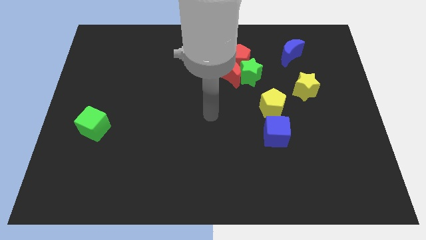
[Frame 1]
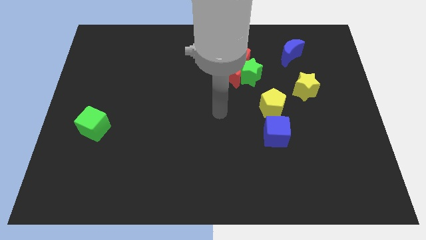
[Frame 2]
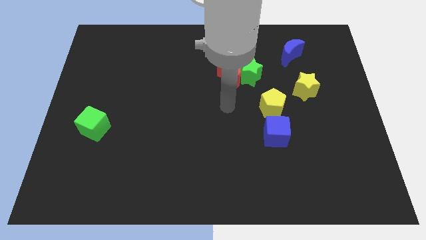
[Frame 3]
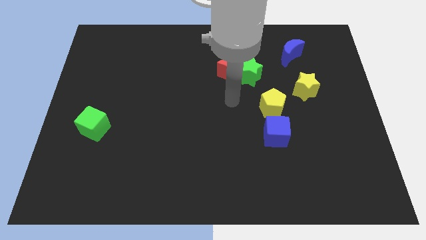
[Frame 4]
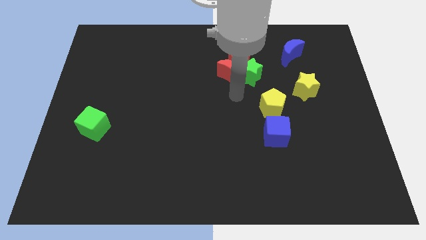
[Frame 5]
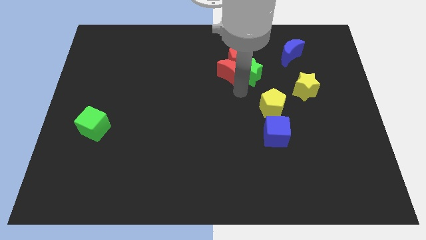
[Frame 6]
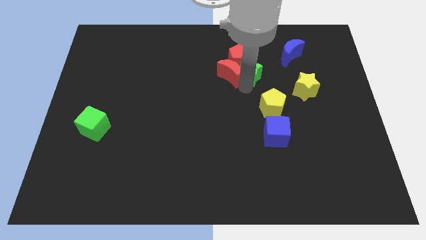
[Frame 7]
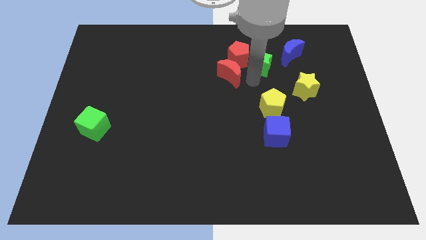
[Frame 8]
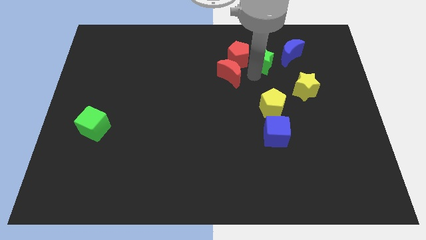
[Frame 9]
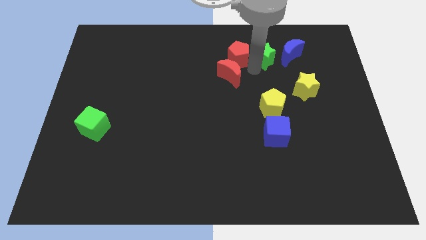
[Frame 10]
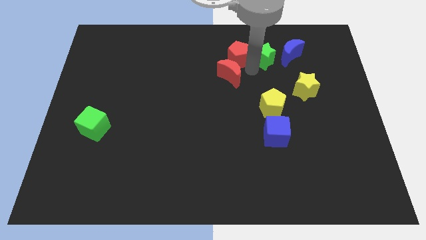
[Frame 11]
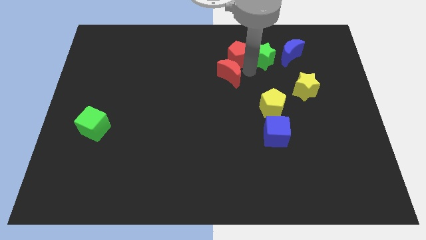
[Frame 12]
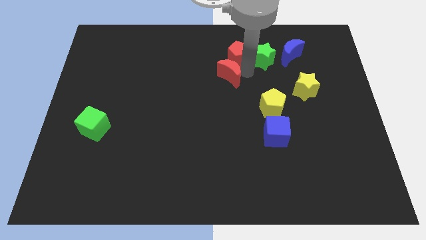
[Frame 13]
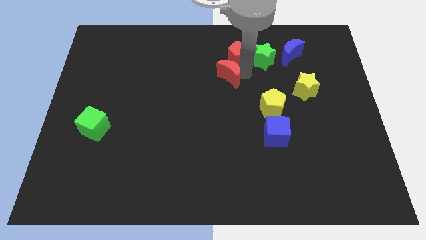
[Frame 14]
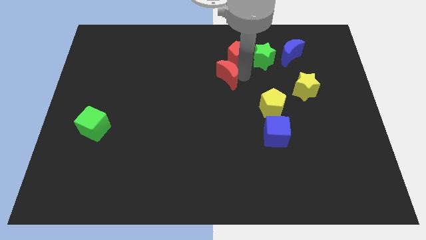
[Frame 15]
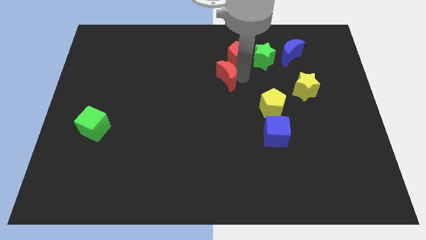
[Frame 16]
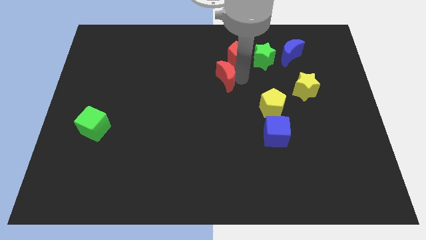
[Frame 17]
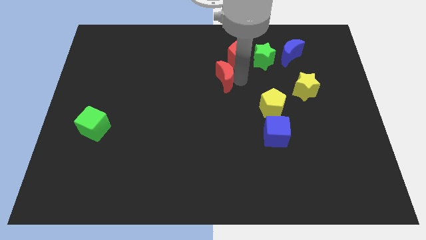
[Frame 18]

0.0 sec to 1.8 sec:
pull the red moon apart from the green star and red pentagon

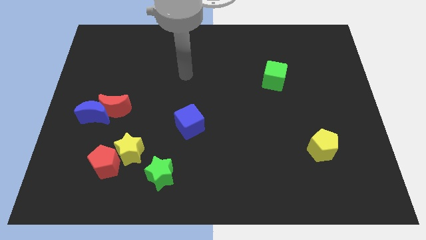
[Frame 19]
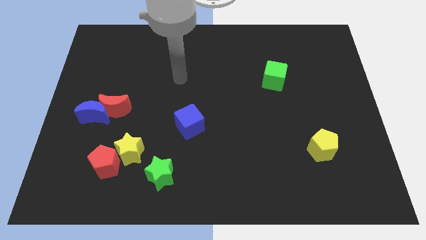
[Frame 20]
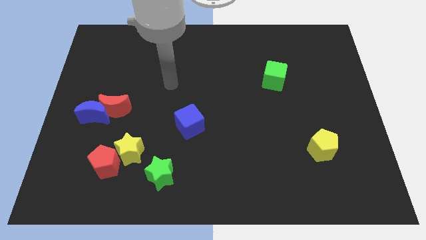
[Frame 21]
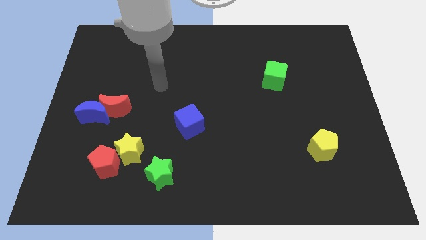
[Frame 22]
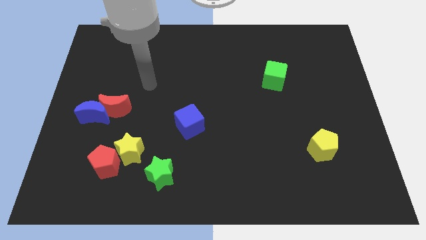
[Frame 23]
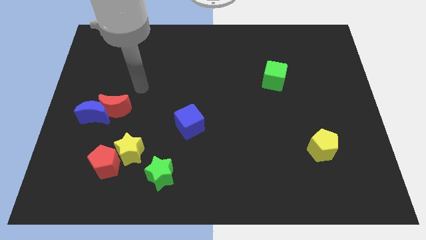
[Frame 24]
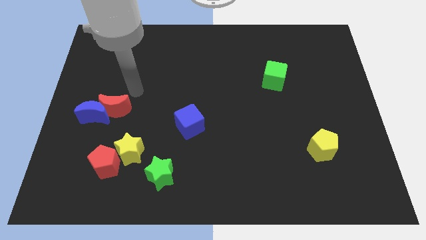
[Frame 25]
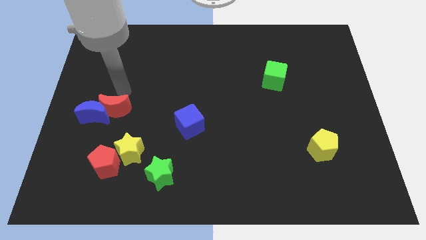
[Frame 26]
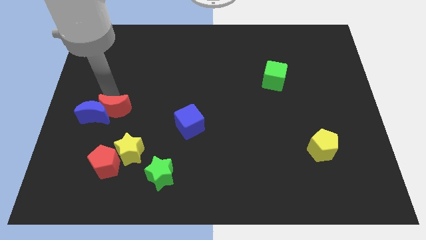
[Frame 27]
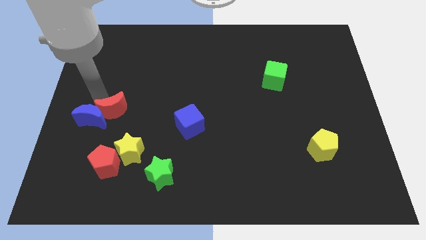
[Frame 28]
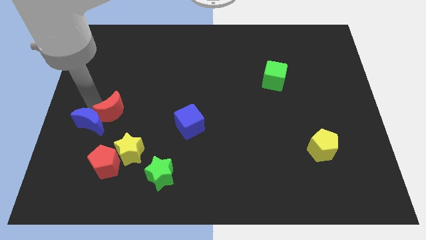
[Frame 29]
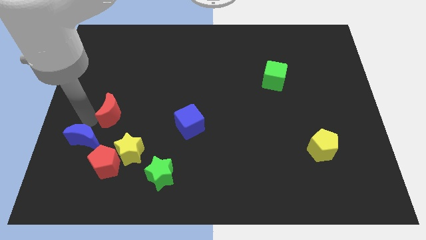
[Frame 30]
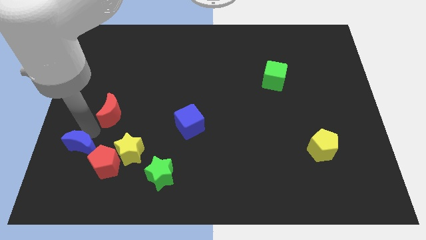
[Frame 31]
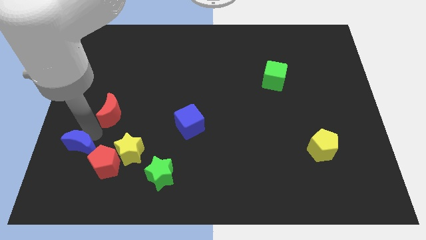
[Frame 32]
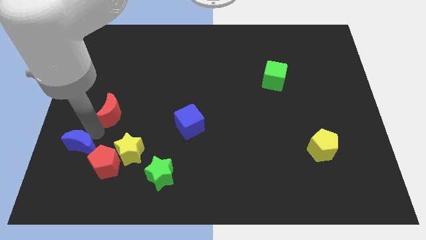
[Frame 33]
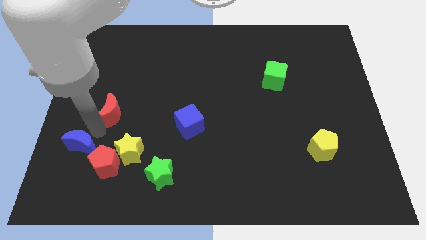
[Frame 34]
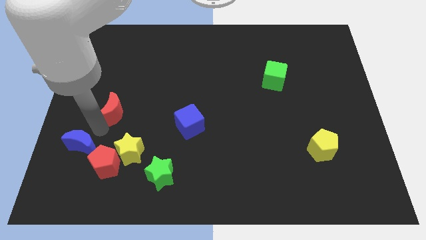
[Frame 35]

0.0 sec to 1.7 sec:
move the red moon away from the blue moon

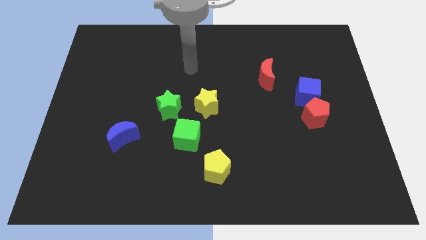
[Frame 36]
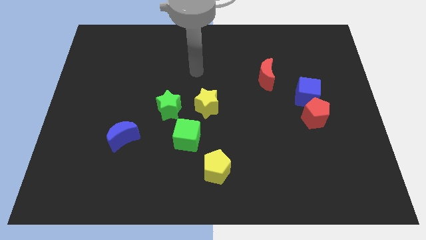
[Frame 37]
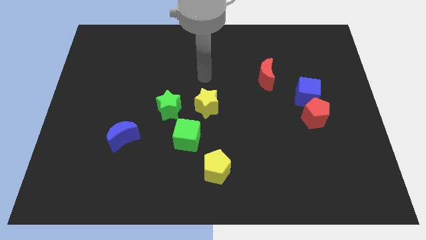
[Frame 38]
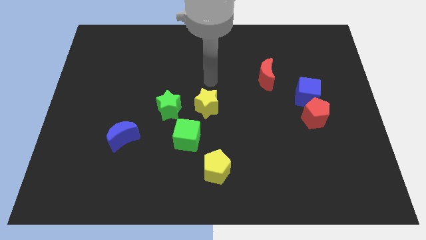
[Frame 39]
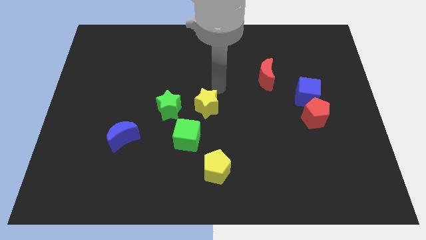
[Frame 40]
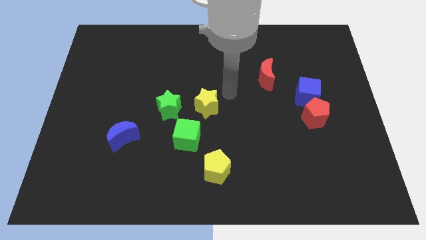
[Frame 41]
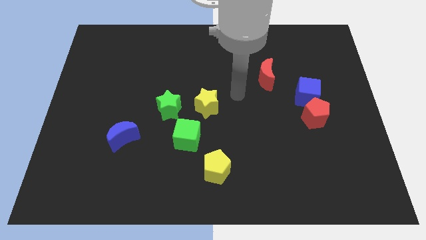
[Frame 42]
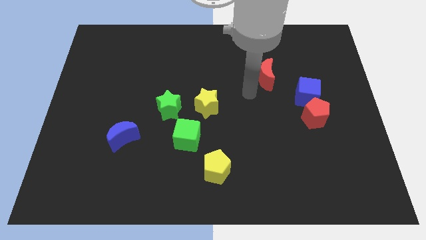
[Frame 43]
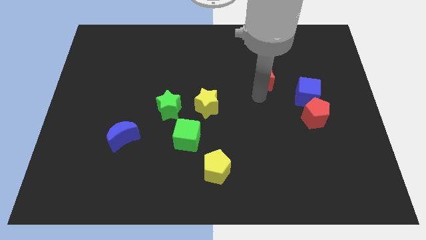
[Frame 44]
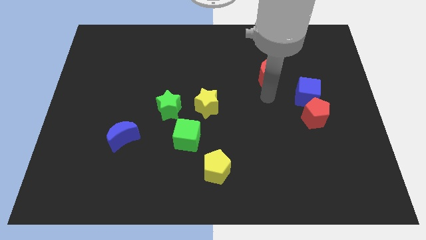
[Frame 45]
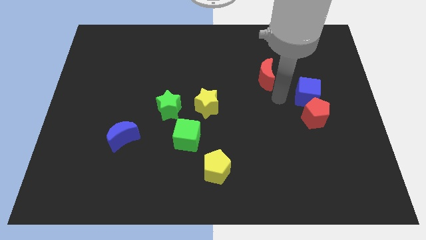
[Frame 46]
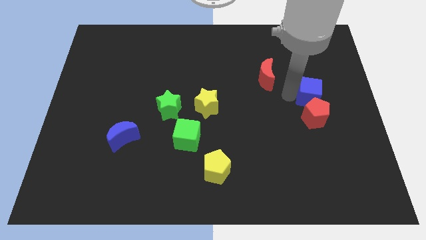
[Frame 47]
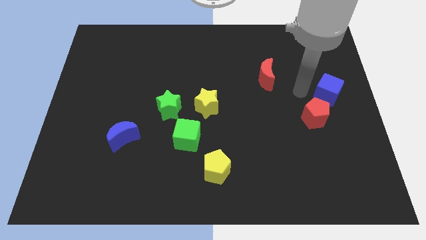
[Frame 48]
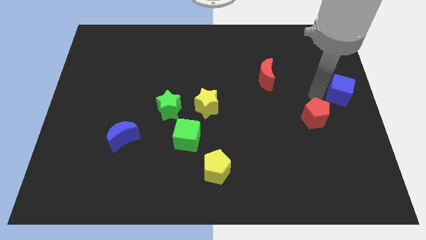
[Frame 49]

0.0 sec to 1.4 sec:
pull the red pentagon apart from the blue cube

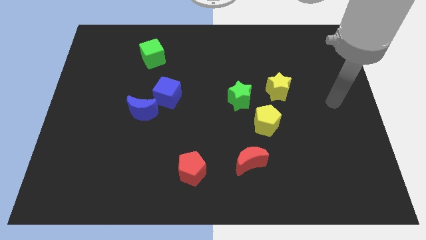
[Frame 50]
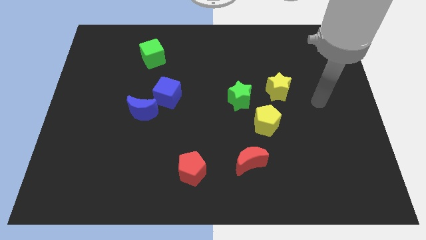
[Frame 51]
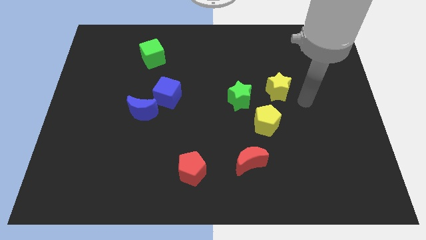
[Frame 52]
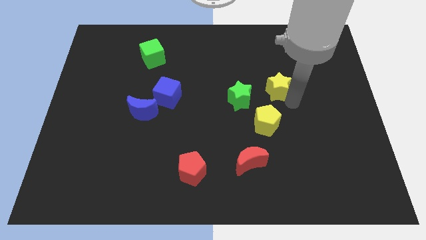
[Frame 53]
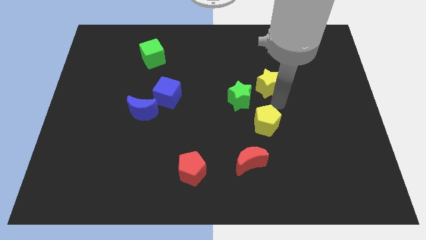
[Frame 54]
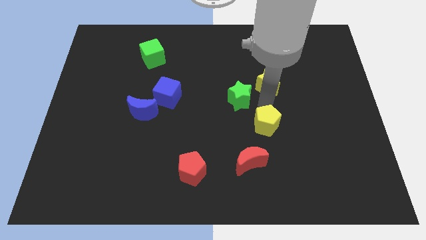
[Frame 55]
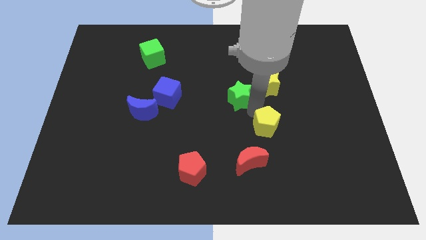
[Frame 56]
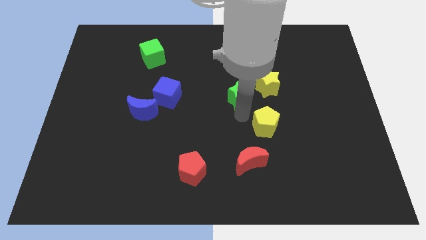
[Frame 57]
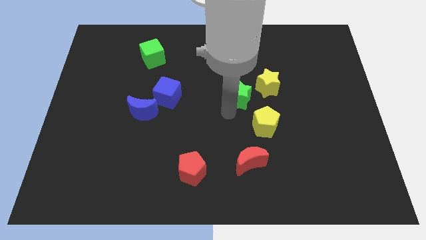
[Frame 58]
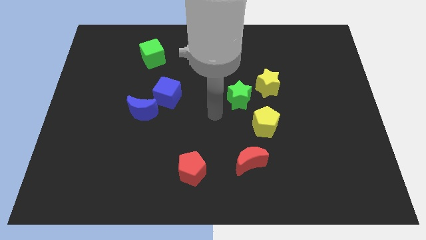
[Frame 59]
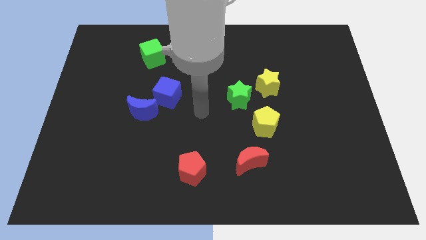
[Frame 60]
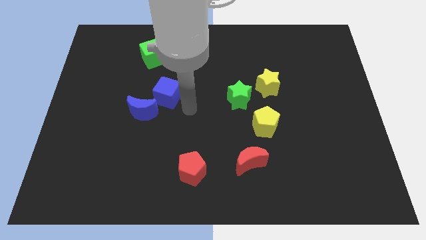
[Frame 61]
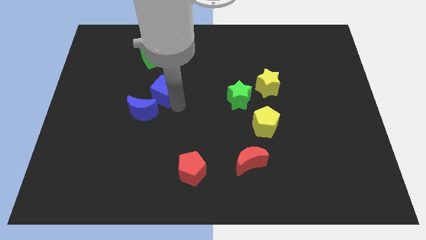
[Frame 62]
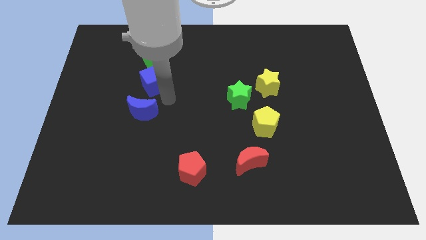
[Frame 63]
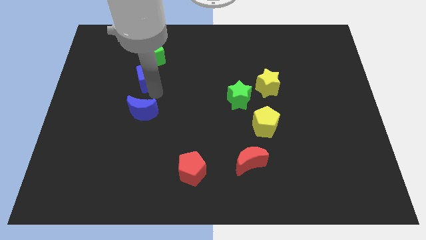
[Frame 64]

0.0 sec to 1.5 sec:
separate the blue moon from the blue cube

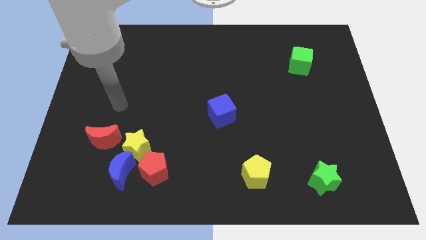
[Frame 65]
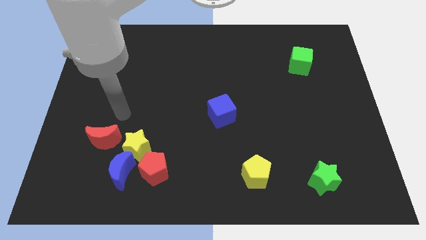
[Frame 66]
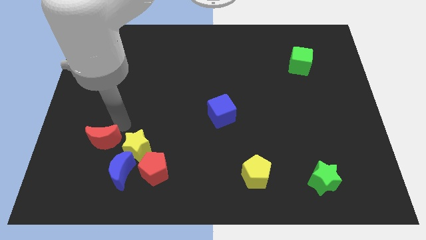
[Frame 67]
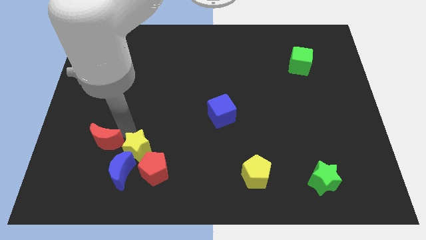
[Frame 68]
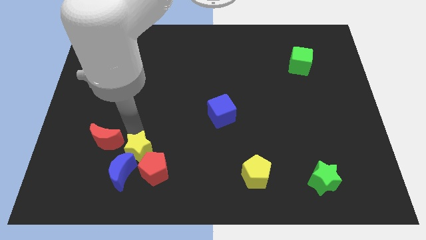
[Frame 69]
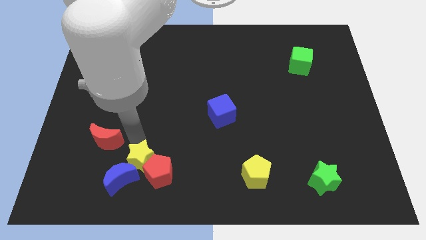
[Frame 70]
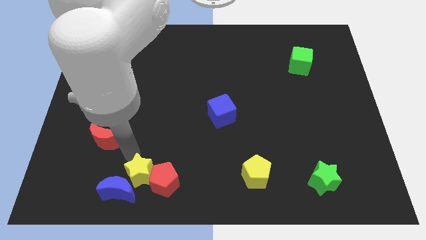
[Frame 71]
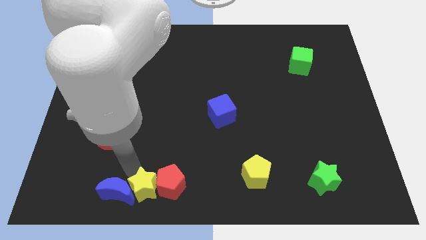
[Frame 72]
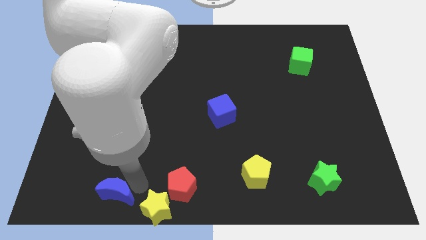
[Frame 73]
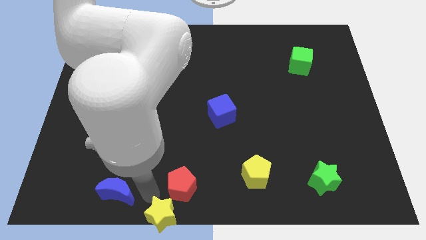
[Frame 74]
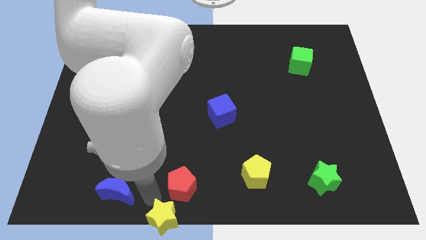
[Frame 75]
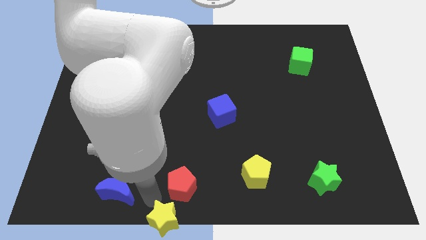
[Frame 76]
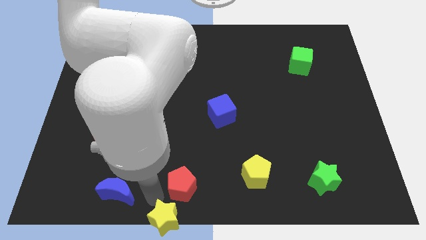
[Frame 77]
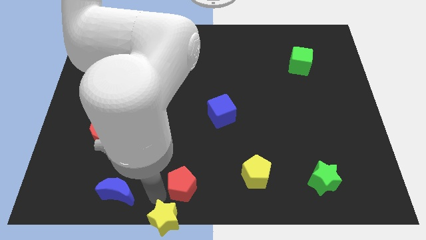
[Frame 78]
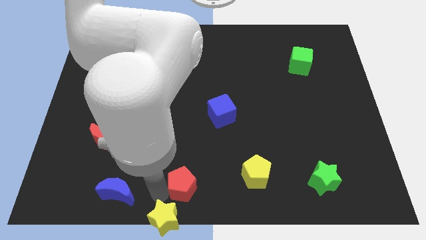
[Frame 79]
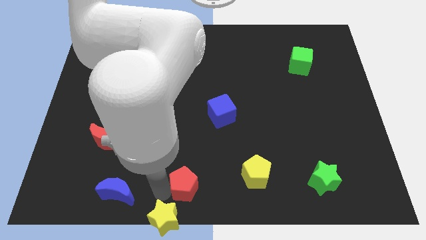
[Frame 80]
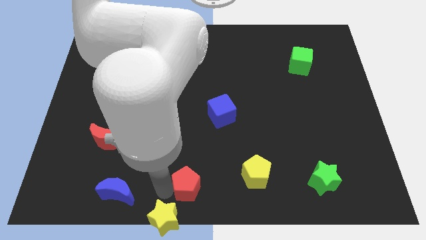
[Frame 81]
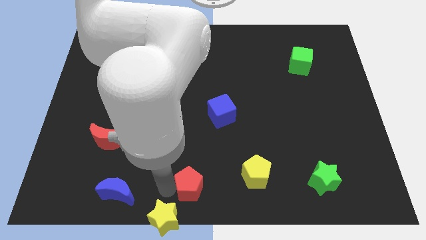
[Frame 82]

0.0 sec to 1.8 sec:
pull the red pentagon apart from the yellow star and blue moon

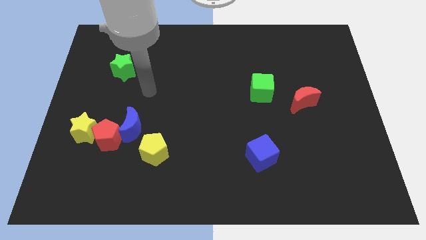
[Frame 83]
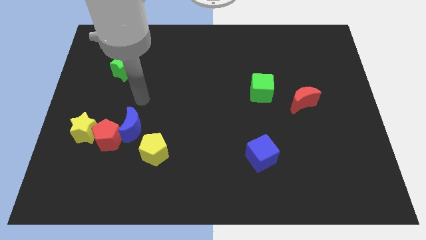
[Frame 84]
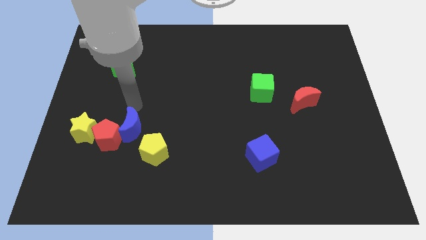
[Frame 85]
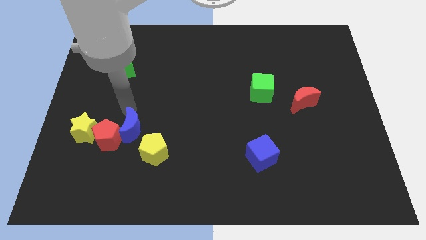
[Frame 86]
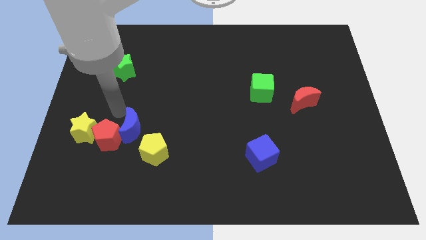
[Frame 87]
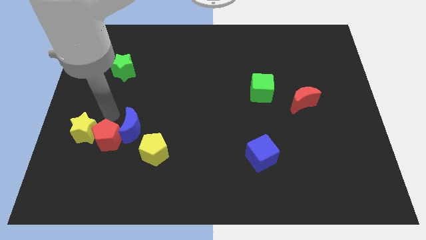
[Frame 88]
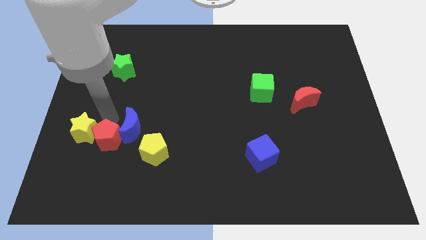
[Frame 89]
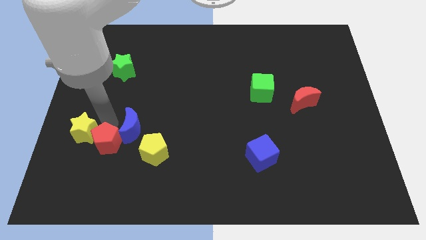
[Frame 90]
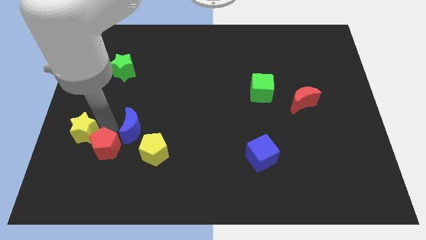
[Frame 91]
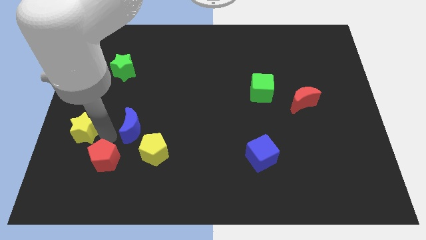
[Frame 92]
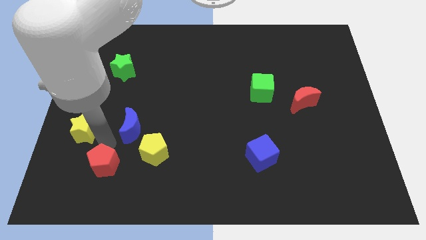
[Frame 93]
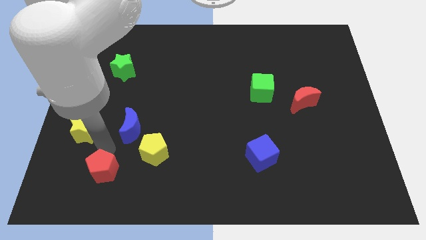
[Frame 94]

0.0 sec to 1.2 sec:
move the red pentagon away from the blue moon and yellow star
